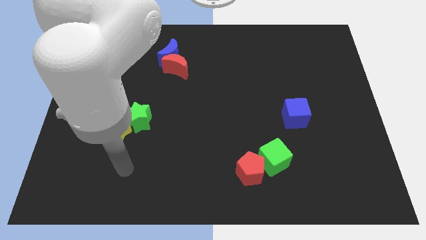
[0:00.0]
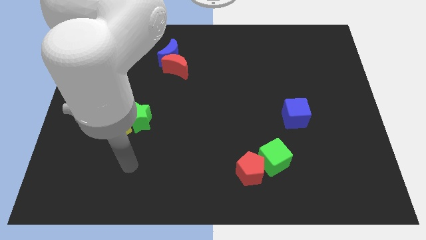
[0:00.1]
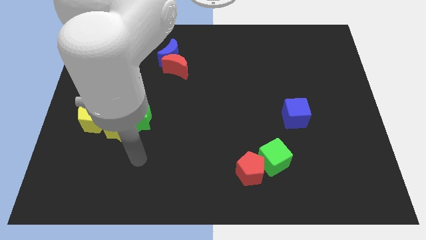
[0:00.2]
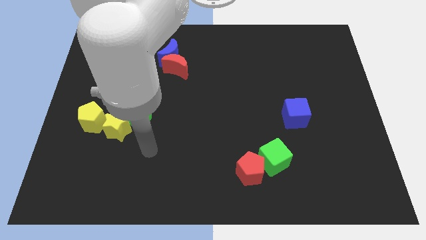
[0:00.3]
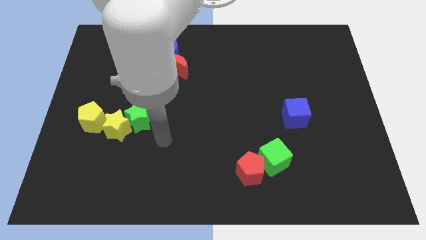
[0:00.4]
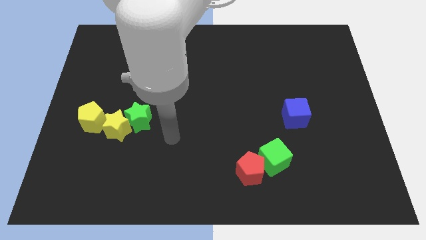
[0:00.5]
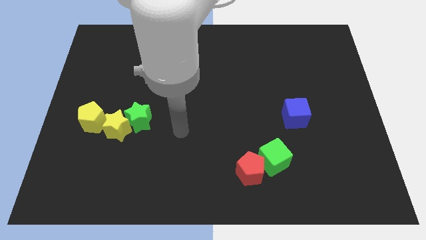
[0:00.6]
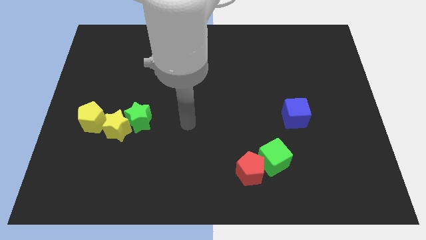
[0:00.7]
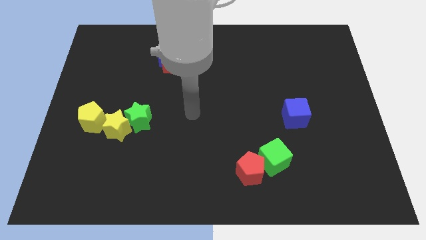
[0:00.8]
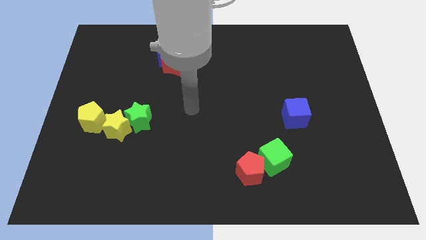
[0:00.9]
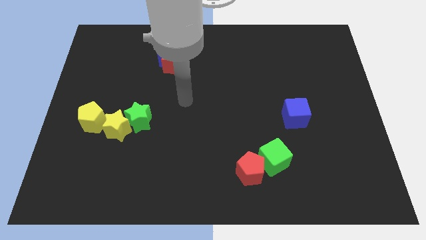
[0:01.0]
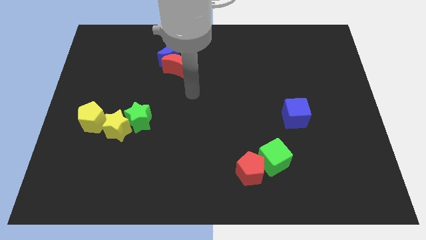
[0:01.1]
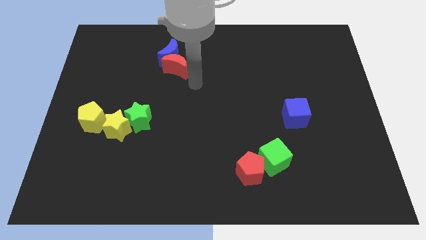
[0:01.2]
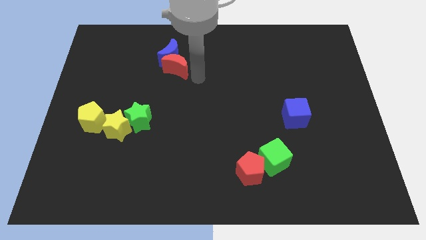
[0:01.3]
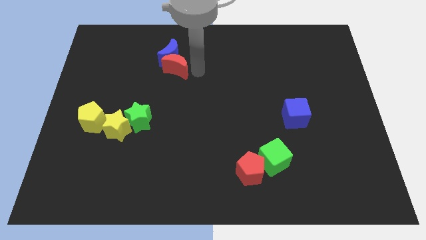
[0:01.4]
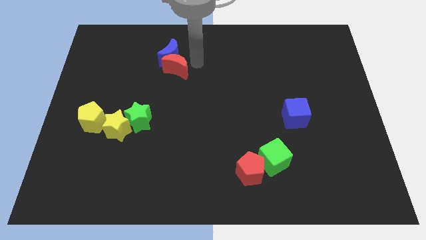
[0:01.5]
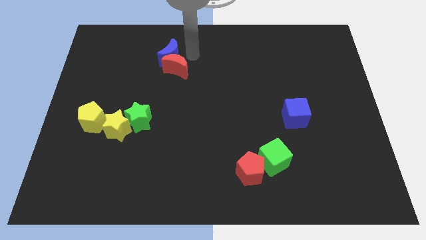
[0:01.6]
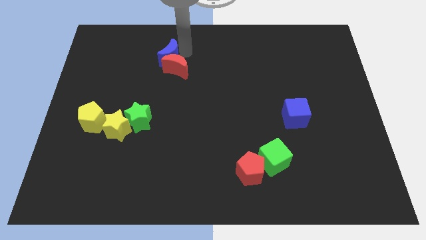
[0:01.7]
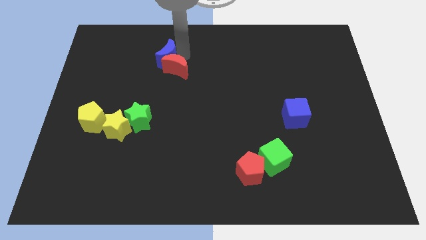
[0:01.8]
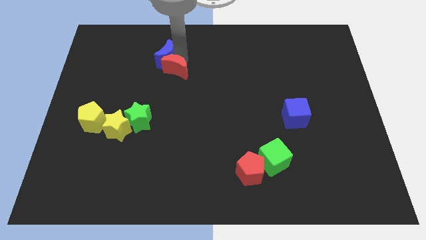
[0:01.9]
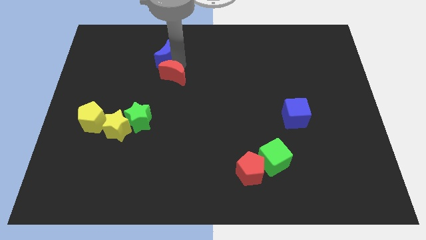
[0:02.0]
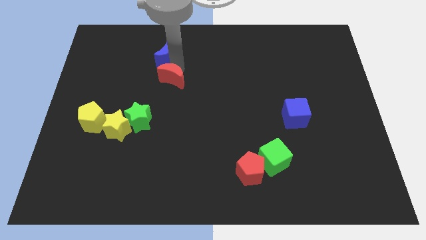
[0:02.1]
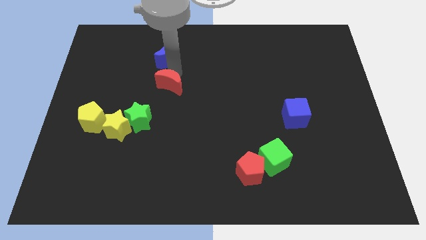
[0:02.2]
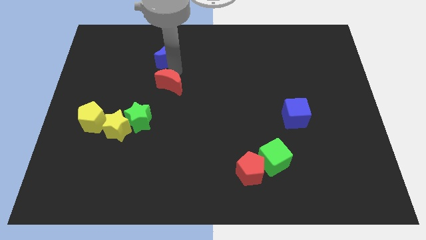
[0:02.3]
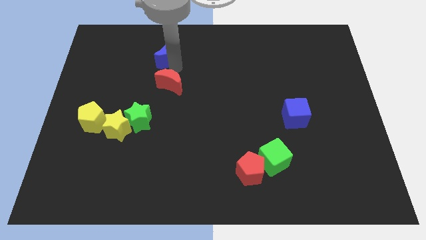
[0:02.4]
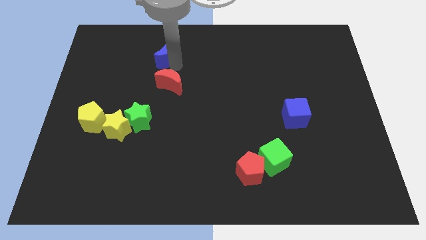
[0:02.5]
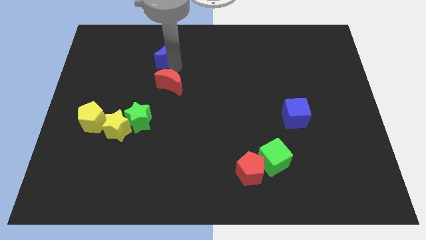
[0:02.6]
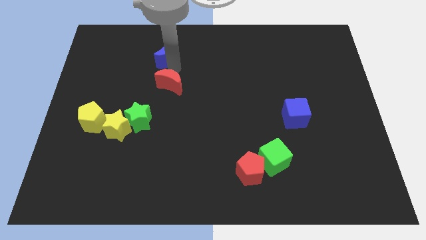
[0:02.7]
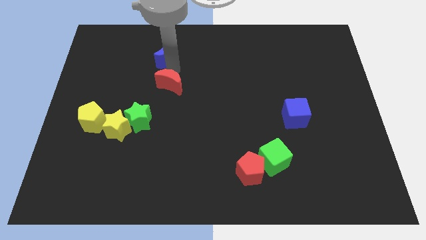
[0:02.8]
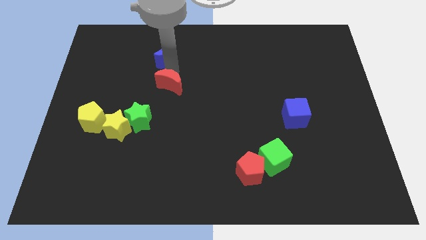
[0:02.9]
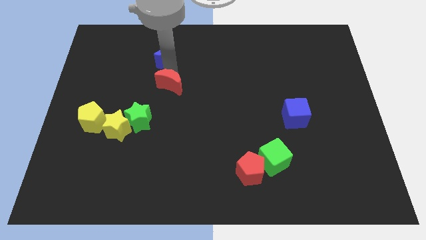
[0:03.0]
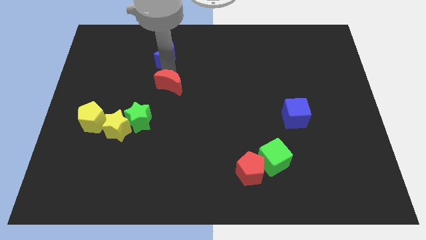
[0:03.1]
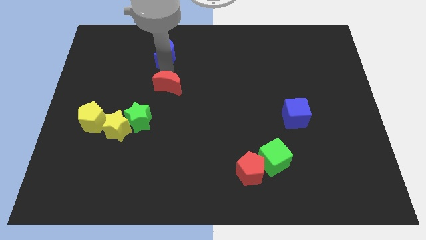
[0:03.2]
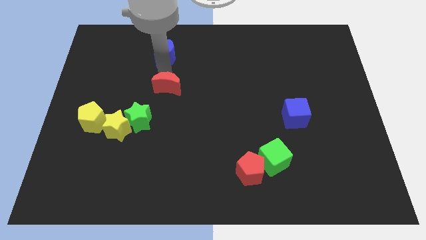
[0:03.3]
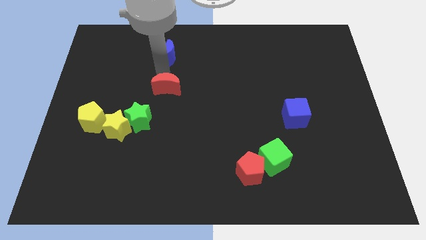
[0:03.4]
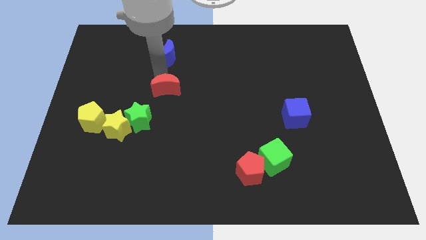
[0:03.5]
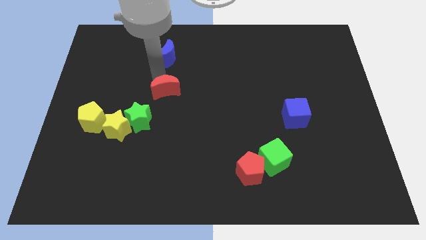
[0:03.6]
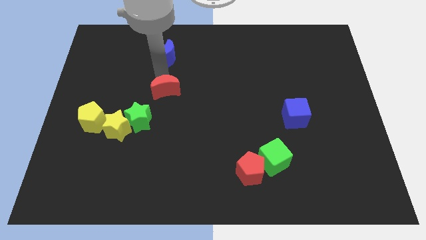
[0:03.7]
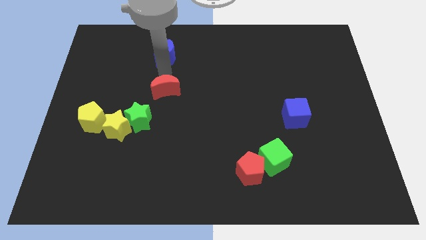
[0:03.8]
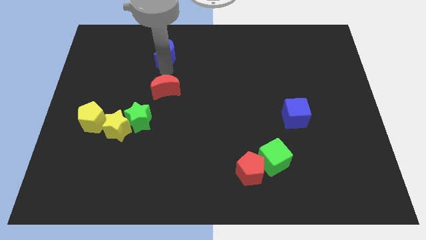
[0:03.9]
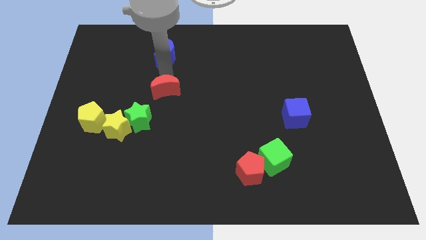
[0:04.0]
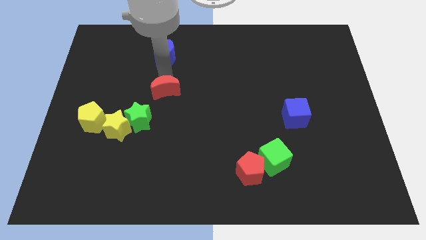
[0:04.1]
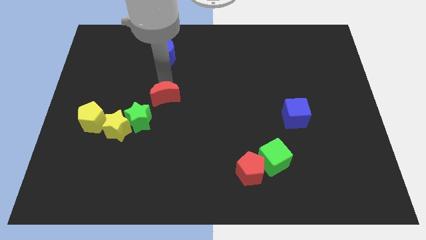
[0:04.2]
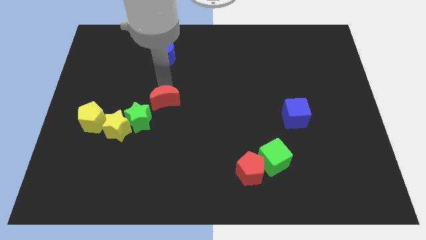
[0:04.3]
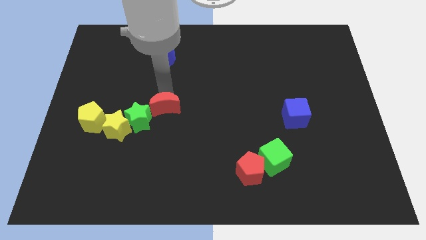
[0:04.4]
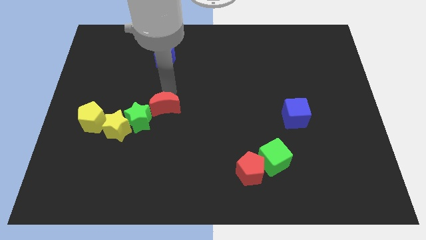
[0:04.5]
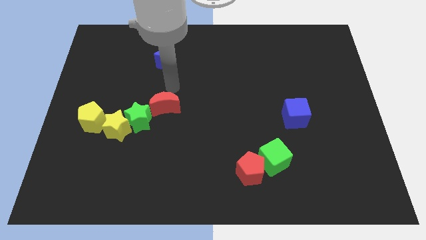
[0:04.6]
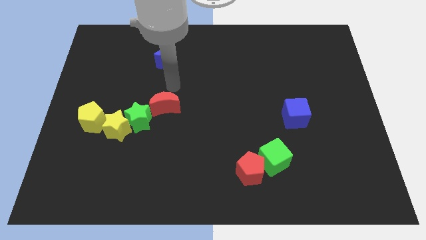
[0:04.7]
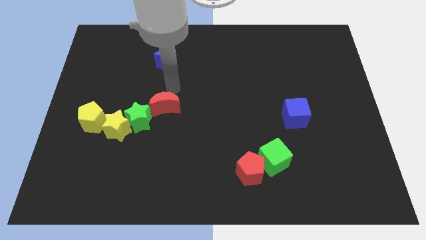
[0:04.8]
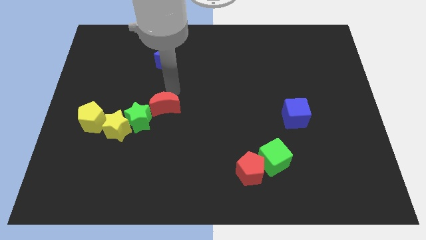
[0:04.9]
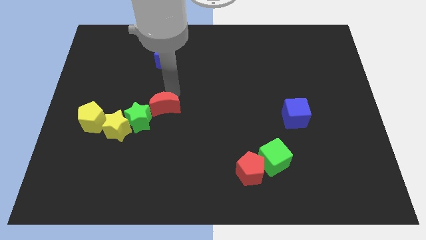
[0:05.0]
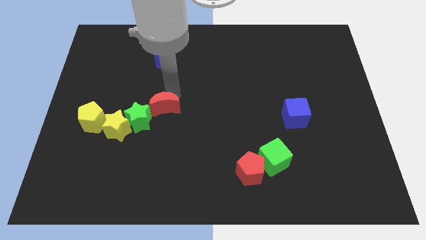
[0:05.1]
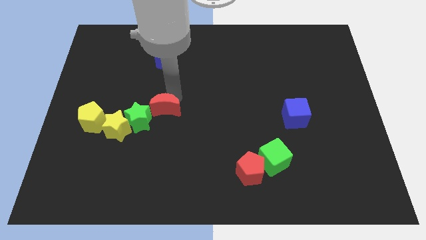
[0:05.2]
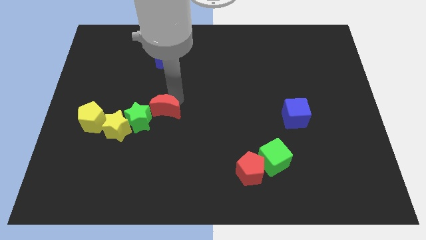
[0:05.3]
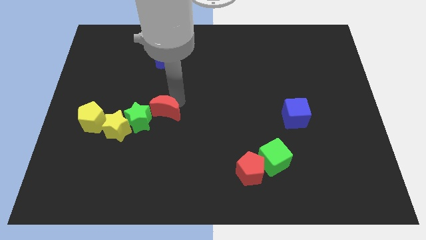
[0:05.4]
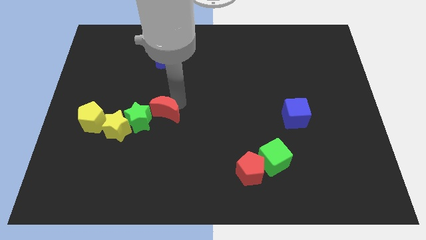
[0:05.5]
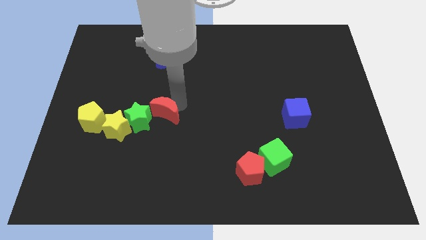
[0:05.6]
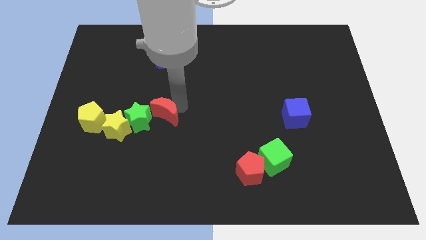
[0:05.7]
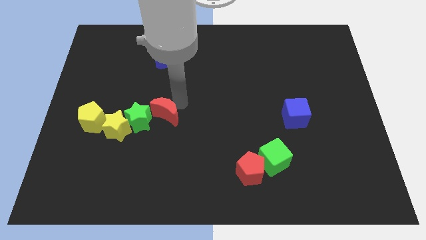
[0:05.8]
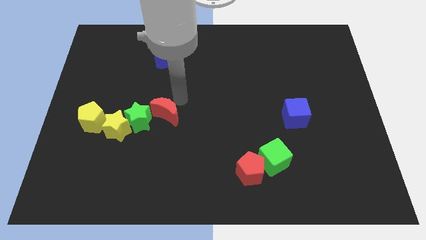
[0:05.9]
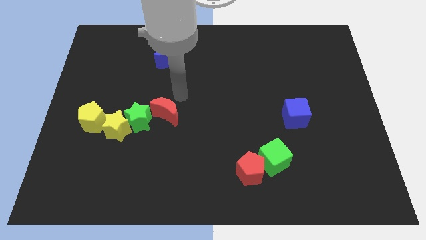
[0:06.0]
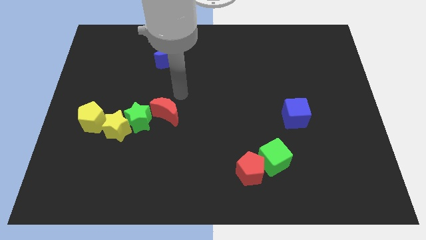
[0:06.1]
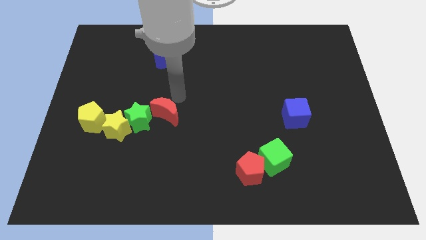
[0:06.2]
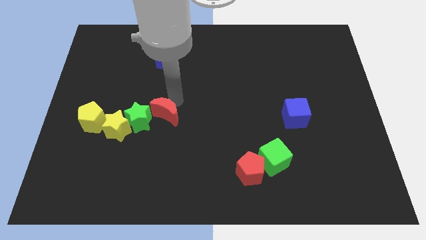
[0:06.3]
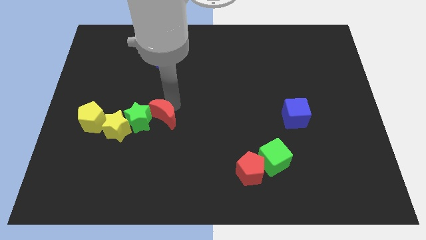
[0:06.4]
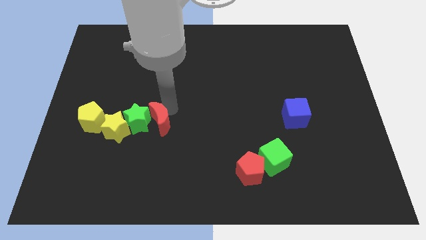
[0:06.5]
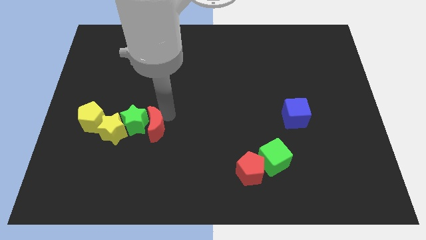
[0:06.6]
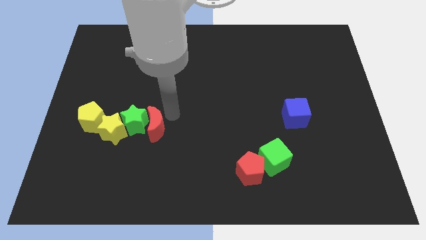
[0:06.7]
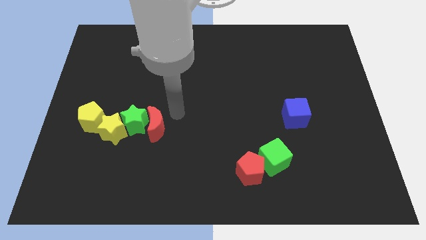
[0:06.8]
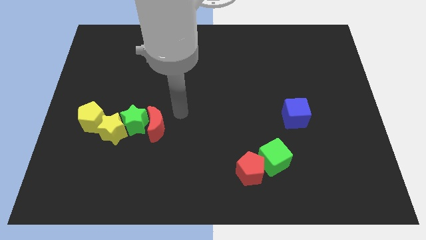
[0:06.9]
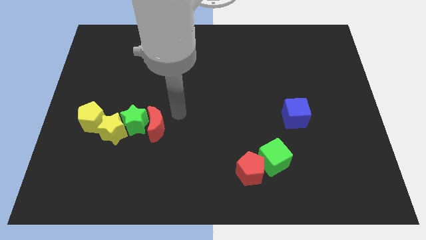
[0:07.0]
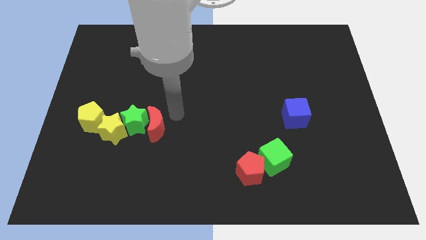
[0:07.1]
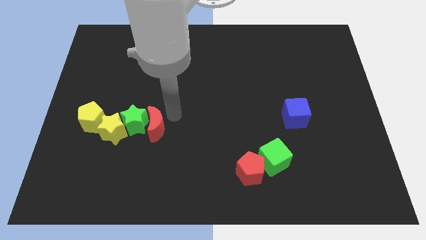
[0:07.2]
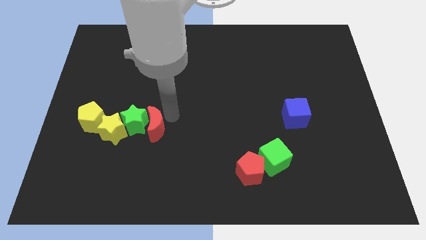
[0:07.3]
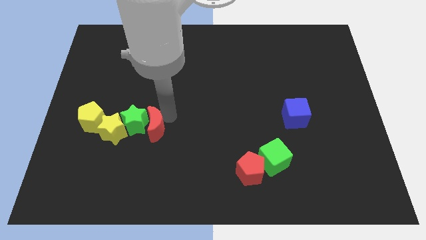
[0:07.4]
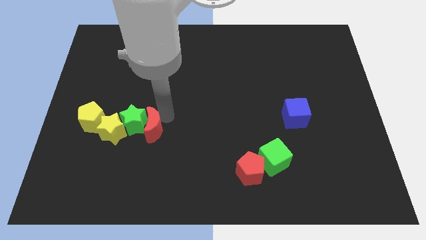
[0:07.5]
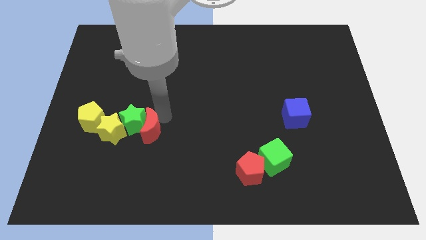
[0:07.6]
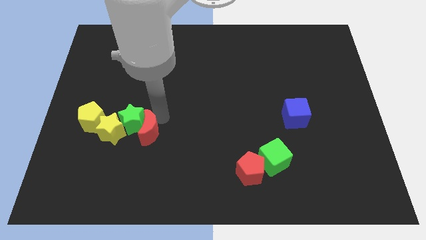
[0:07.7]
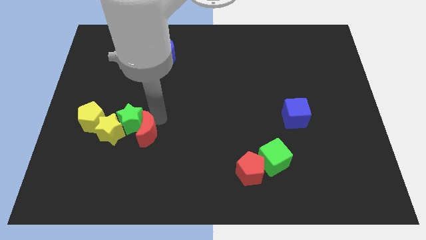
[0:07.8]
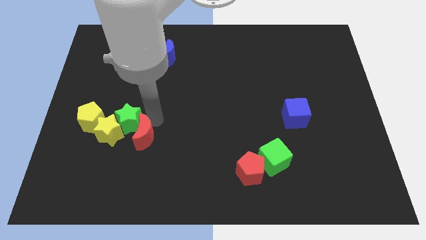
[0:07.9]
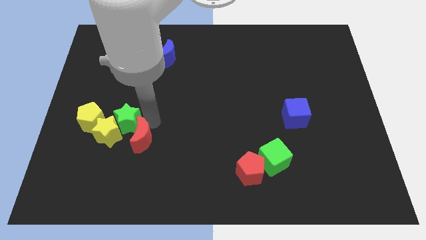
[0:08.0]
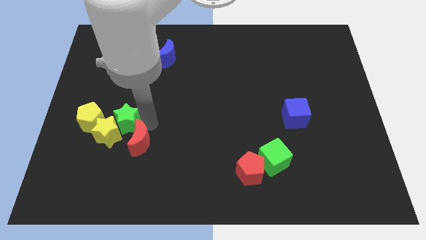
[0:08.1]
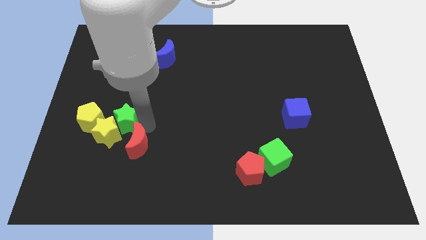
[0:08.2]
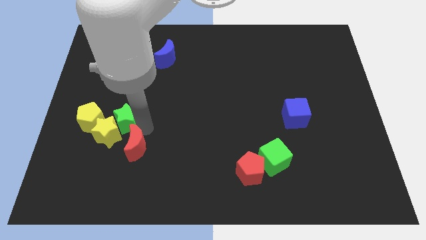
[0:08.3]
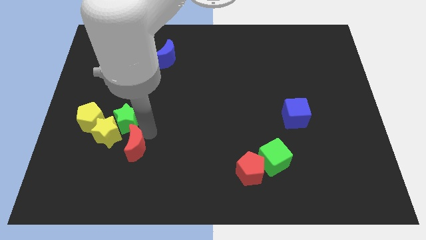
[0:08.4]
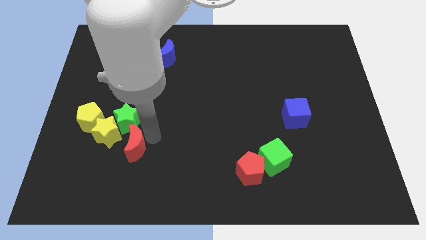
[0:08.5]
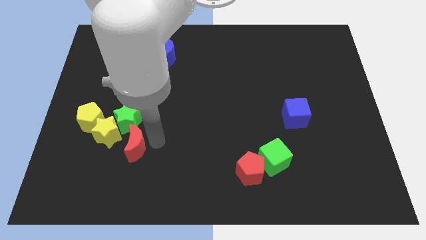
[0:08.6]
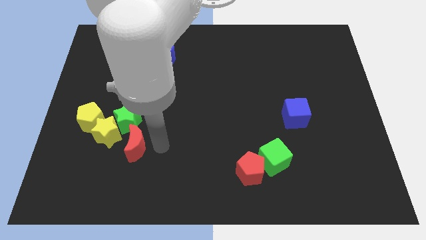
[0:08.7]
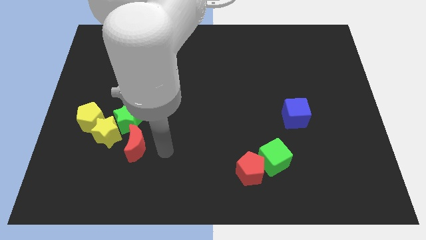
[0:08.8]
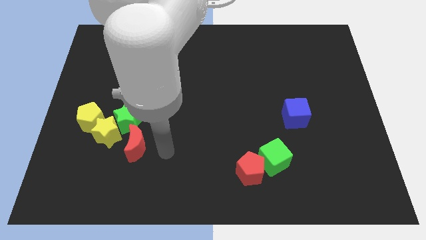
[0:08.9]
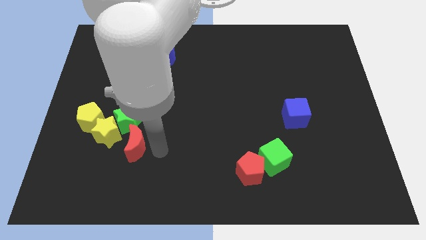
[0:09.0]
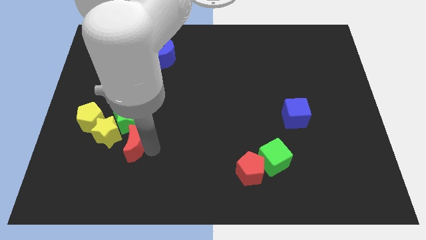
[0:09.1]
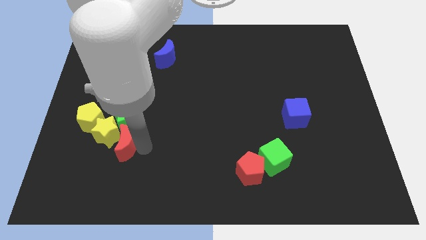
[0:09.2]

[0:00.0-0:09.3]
put the red moon diagonally down and to the right of the yellow pentagon
